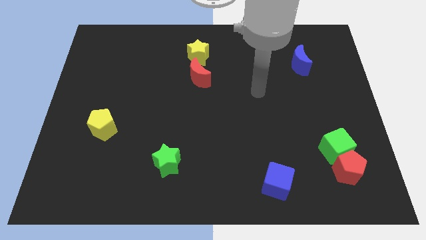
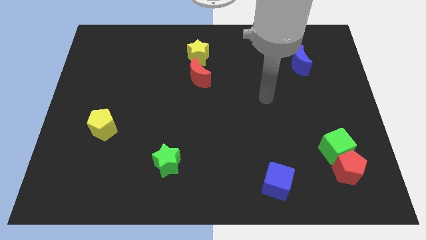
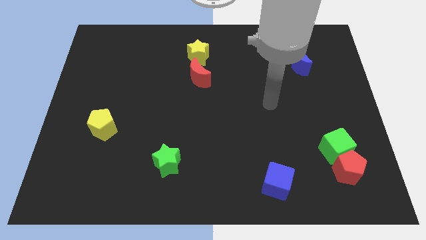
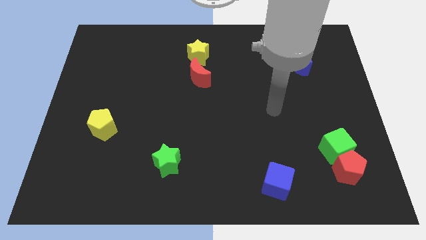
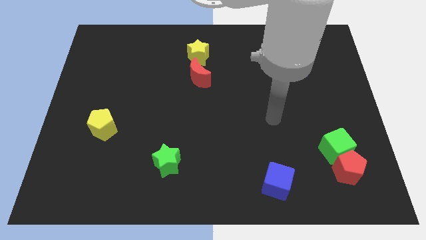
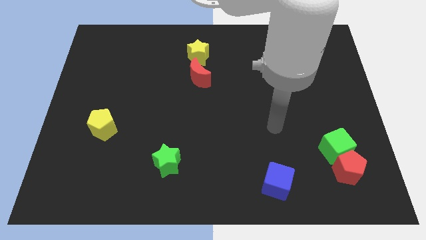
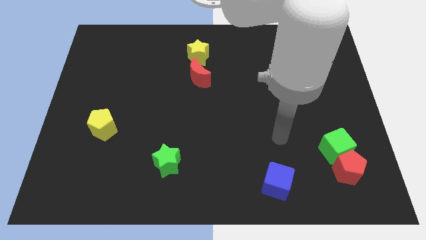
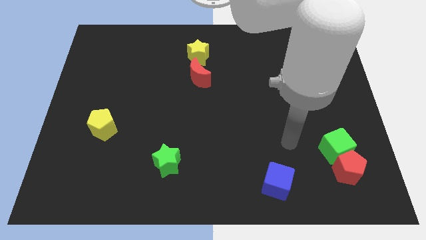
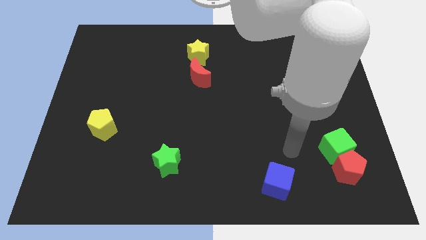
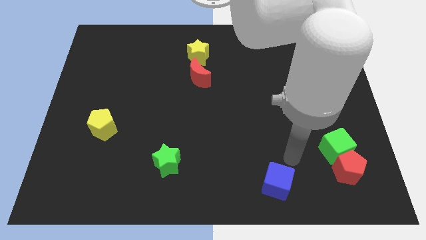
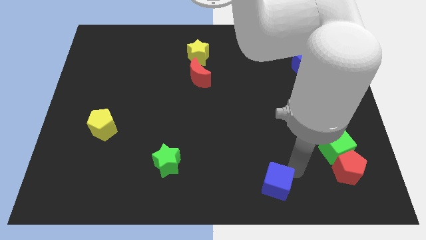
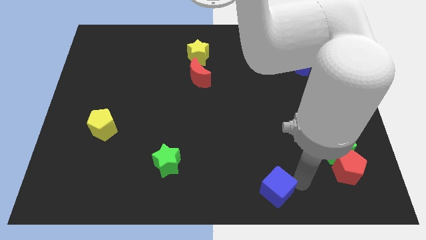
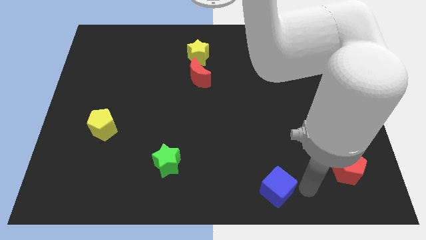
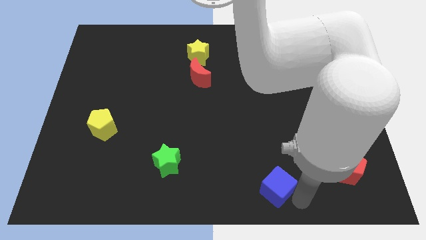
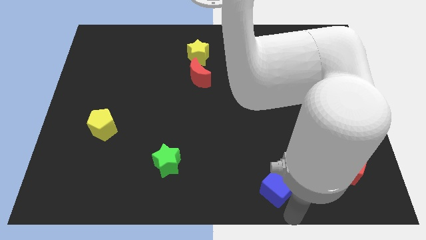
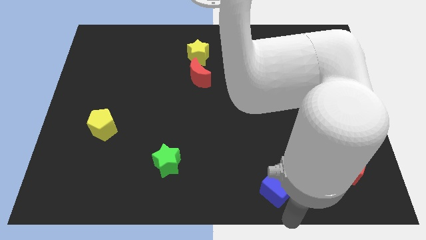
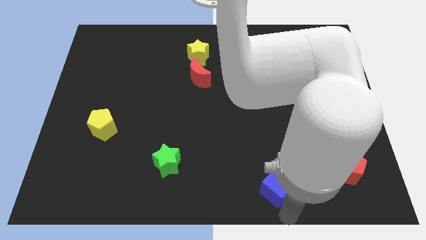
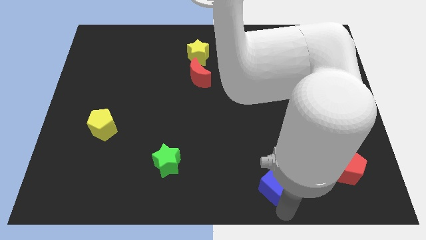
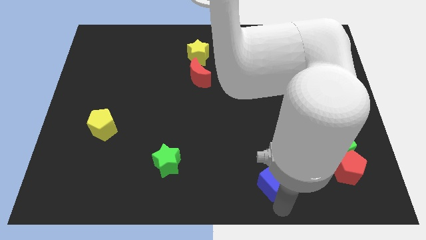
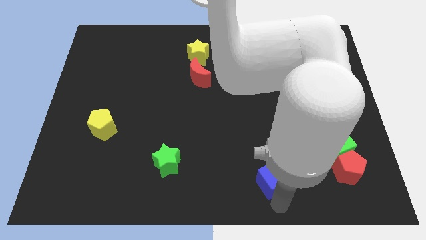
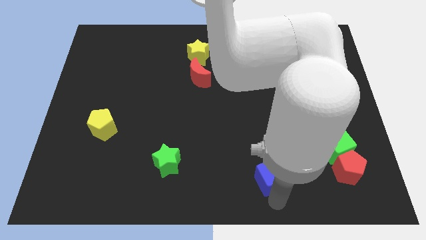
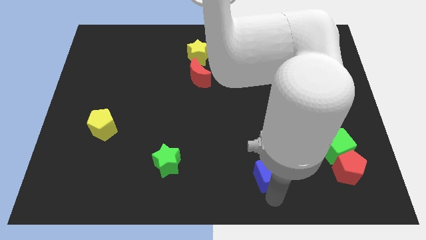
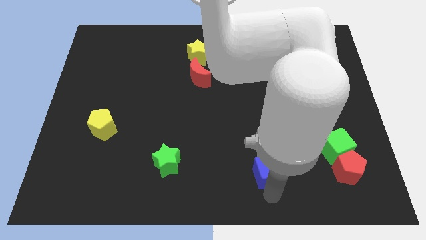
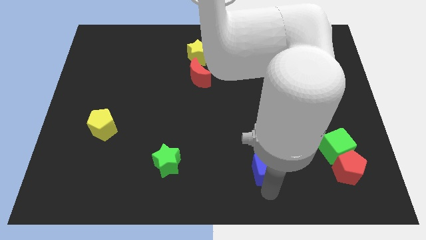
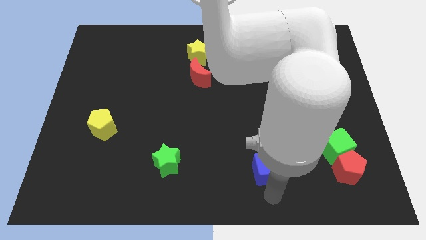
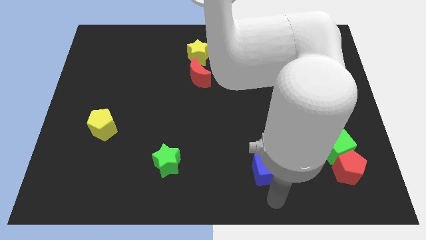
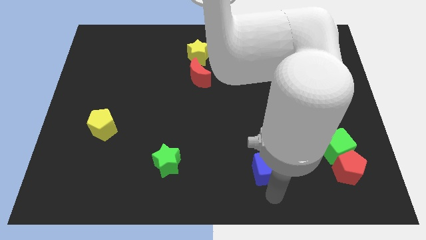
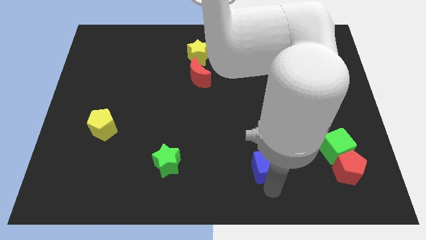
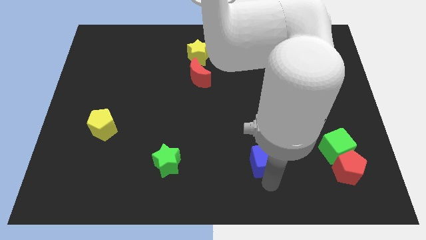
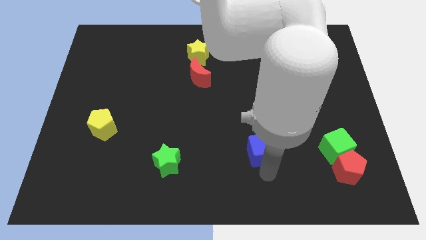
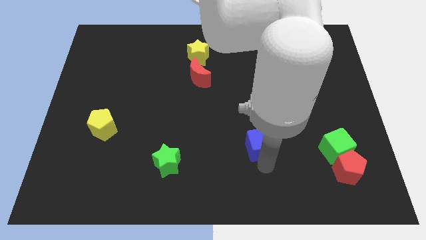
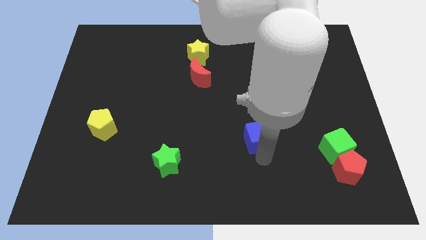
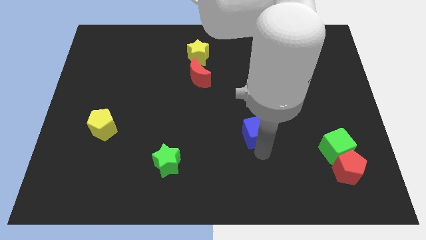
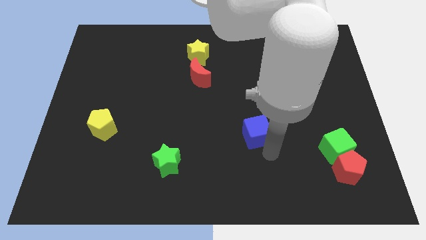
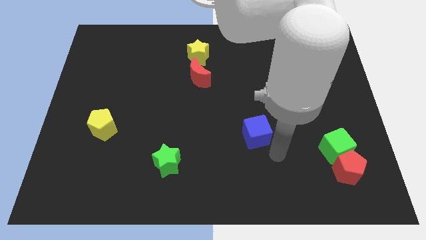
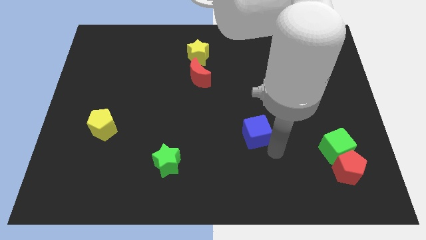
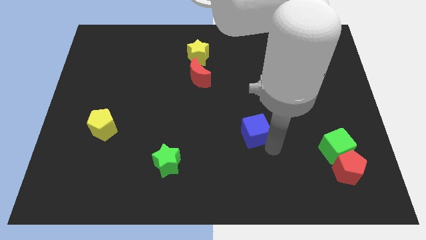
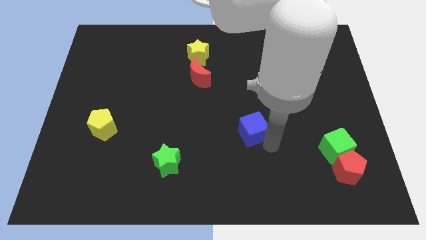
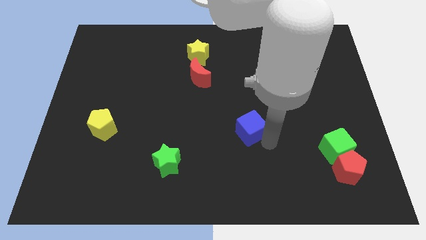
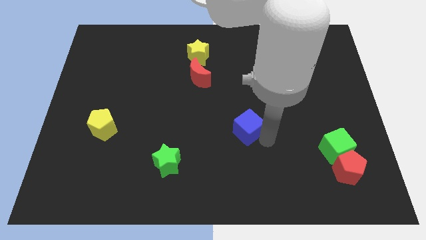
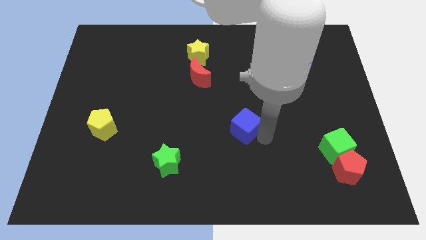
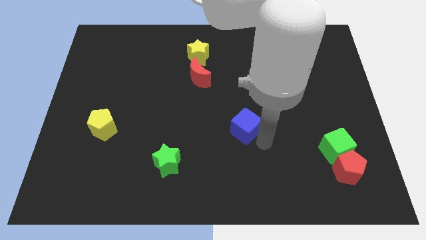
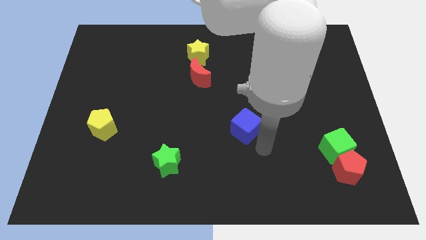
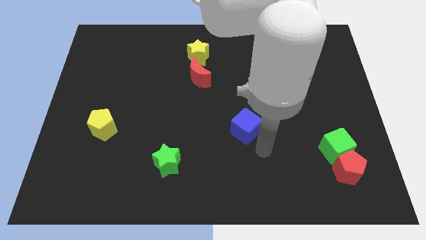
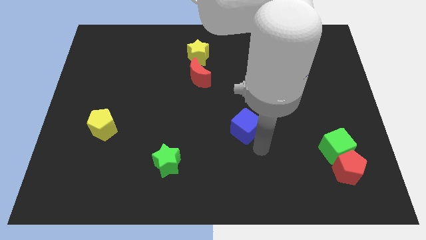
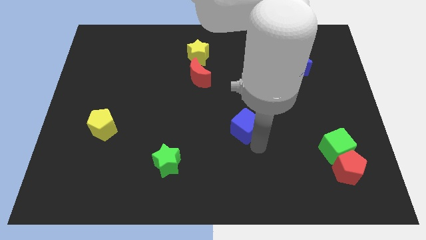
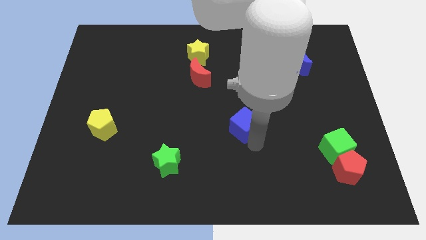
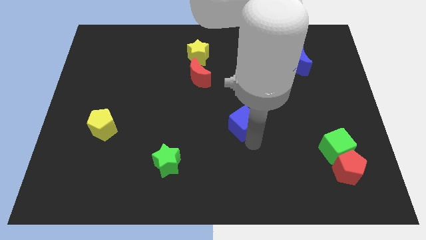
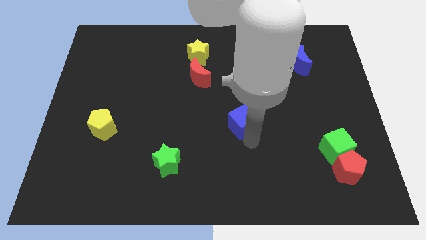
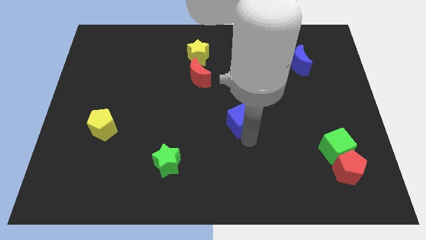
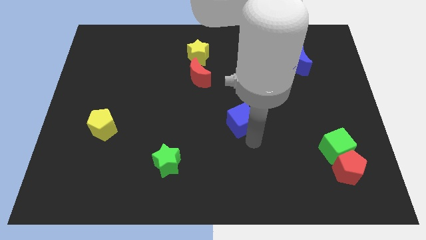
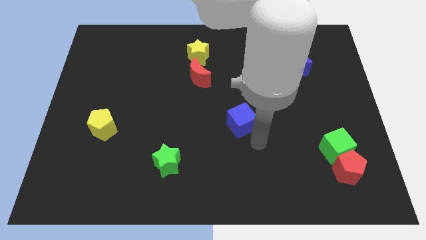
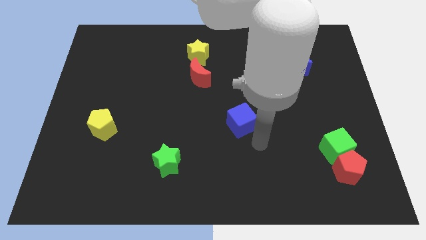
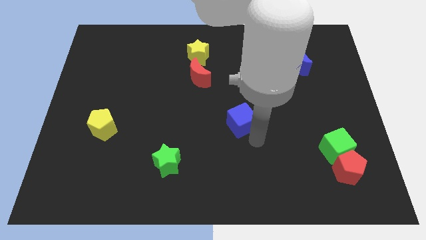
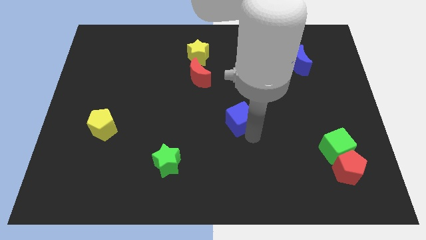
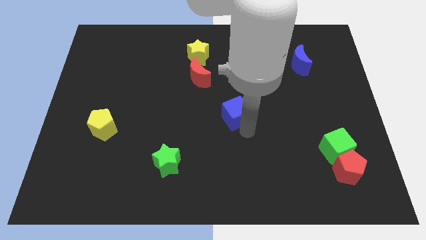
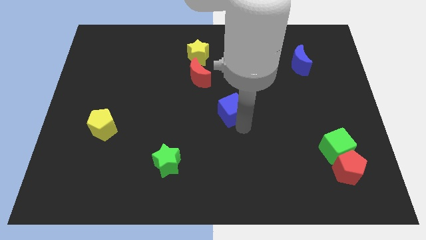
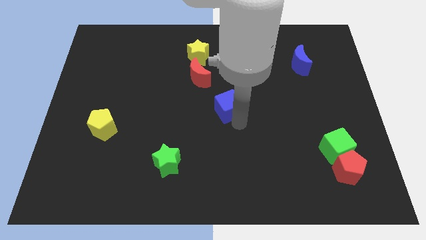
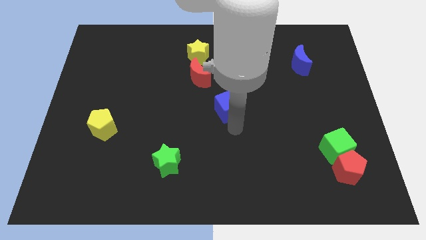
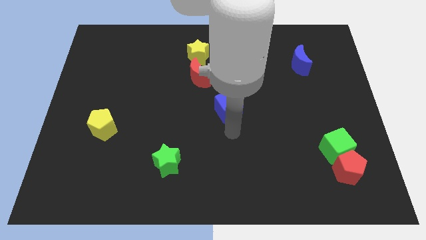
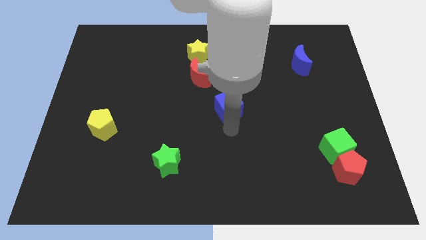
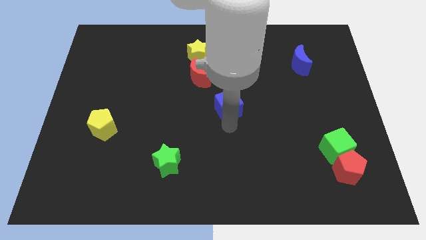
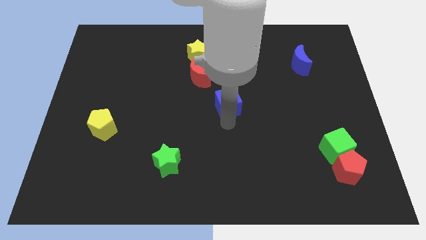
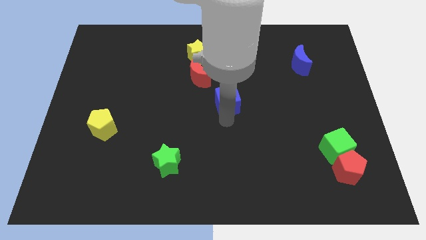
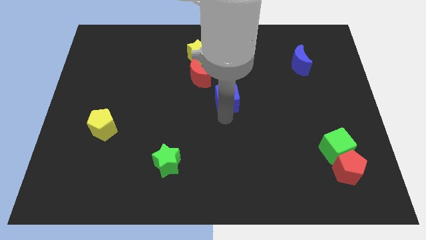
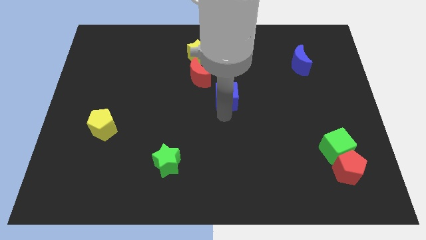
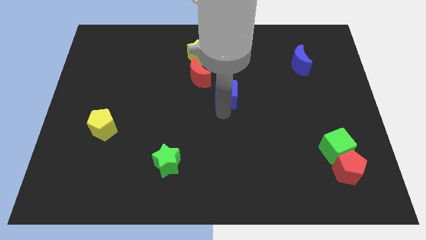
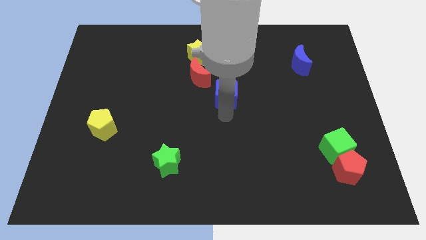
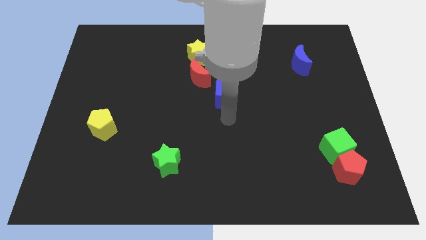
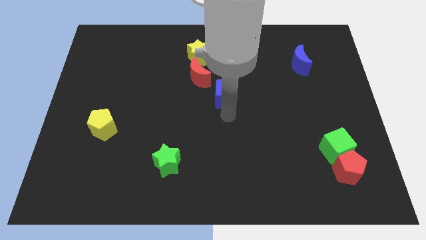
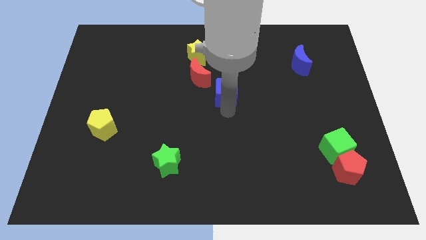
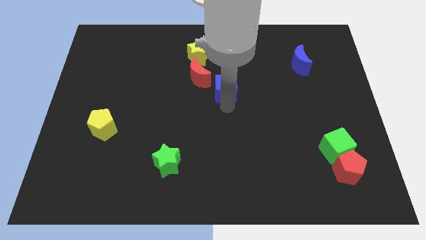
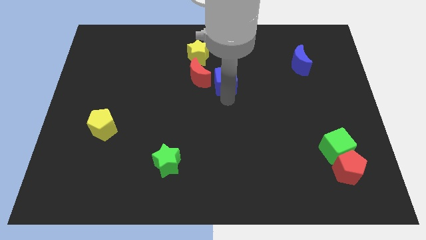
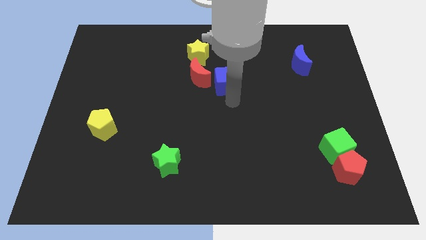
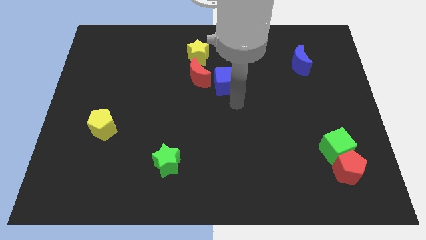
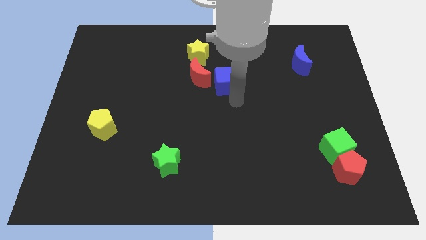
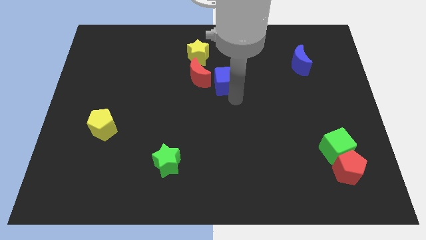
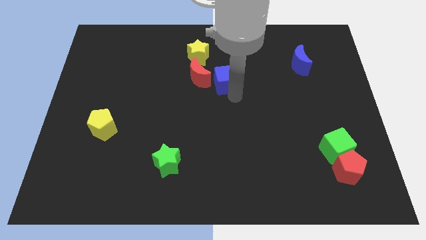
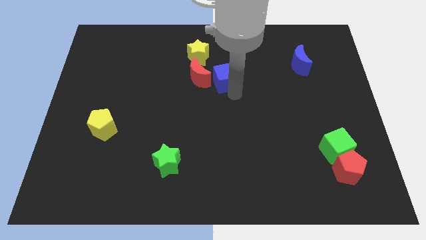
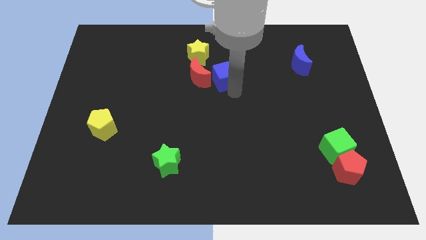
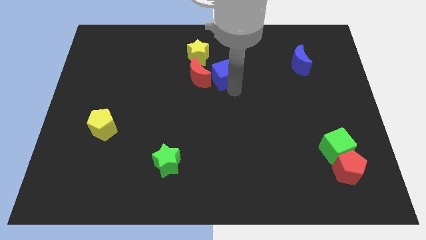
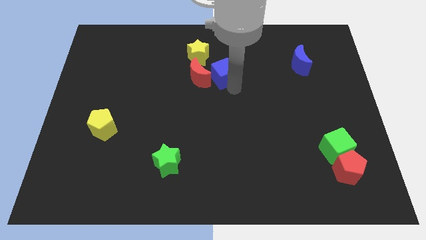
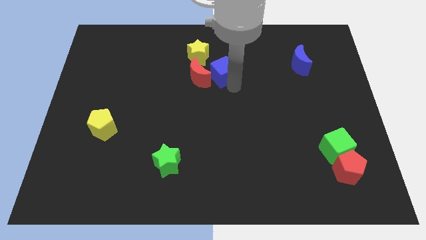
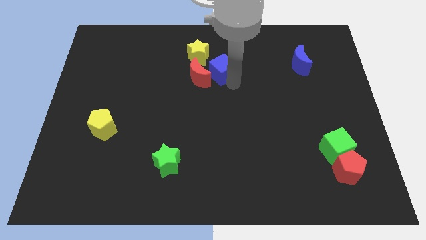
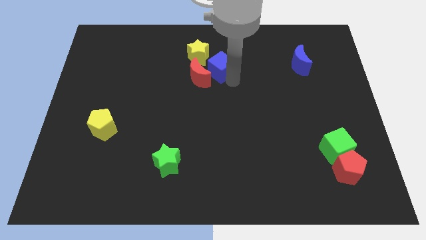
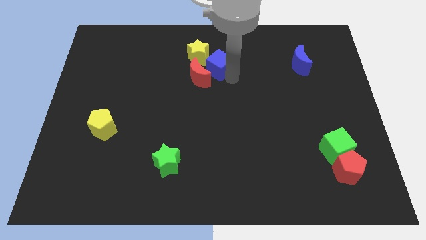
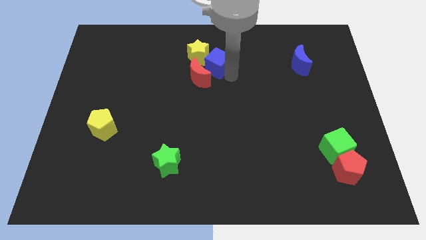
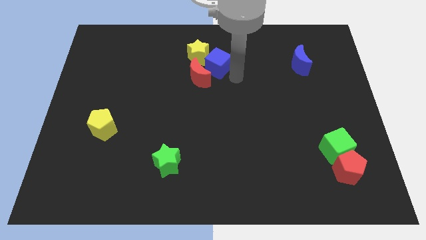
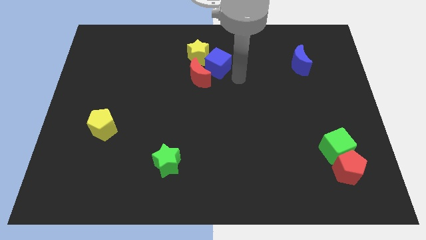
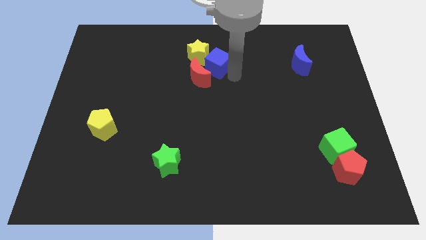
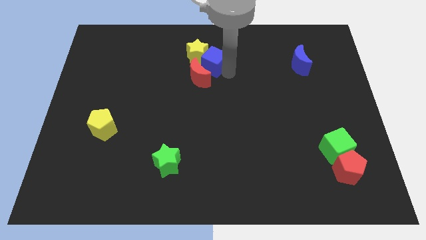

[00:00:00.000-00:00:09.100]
slide the blue cube next to the yellow star
